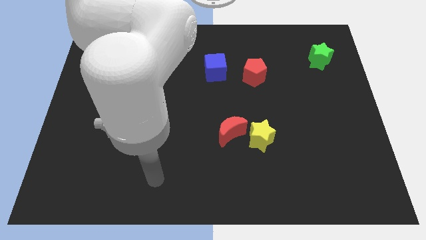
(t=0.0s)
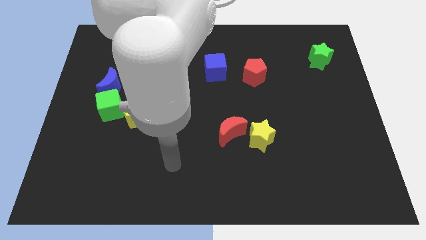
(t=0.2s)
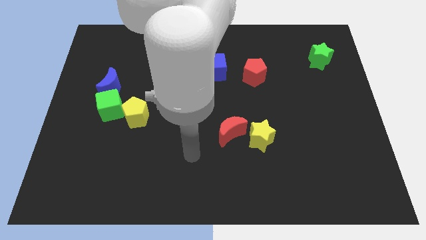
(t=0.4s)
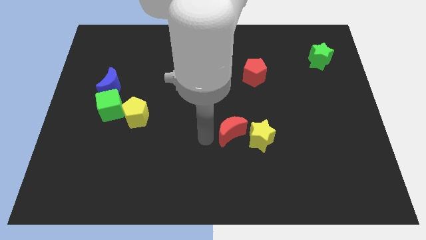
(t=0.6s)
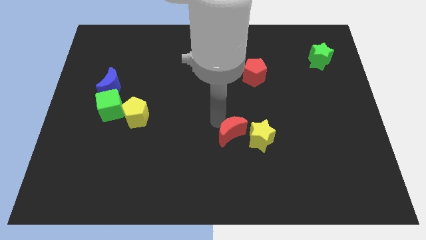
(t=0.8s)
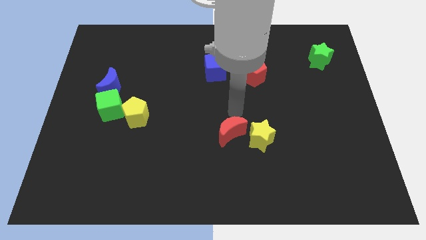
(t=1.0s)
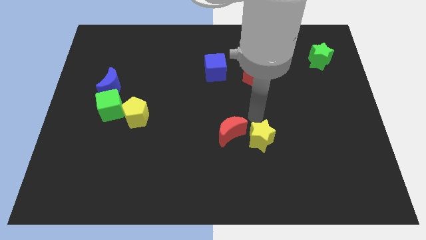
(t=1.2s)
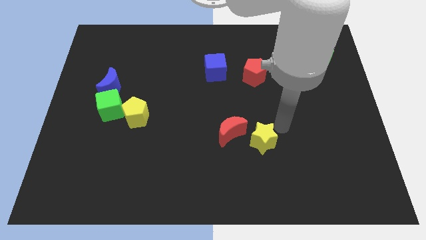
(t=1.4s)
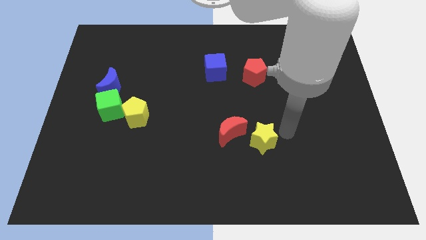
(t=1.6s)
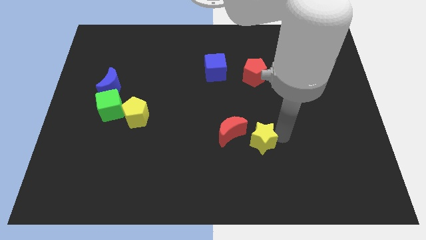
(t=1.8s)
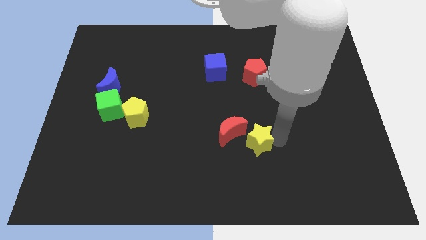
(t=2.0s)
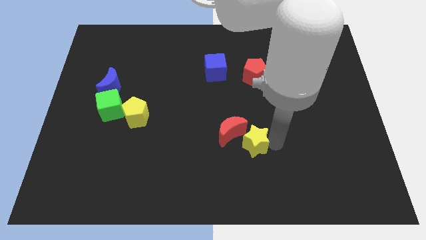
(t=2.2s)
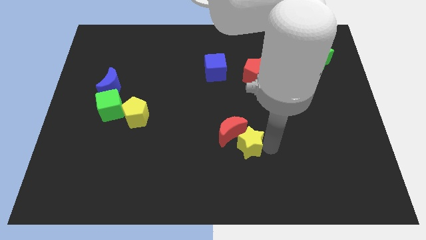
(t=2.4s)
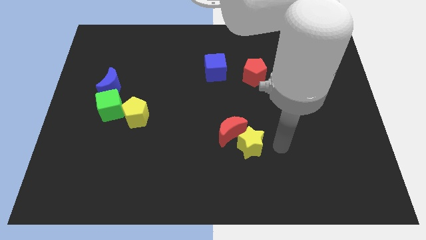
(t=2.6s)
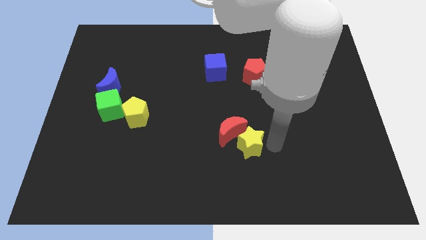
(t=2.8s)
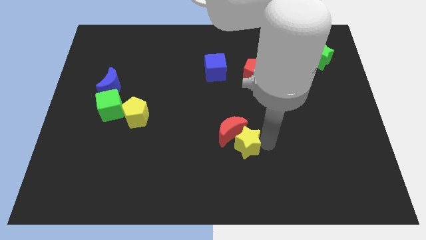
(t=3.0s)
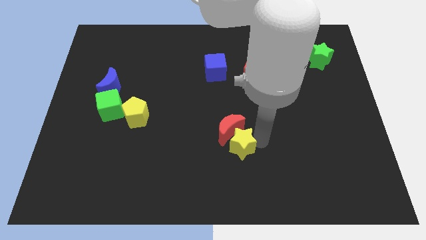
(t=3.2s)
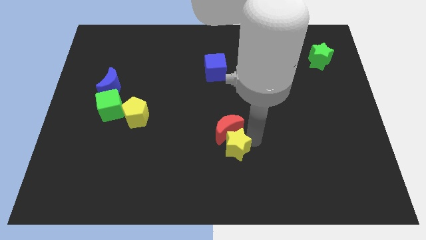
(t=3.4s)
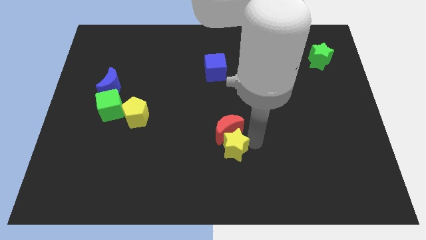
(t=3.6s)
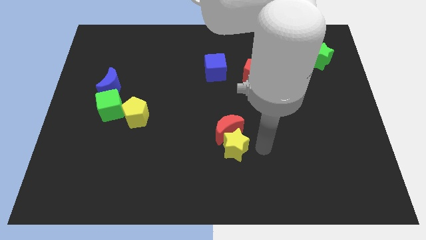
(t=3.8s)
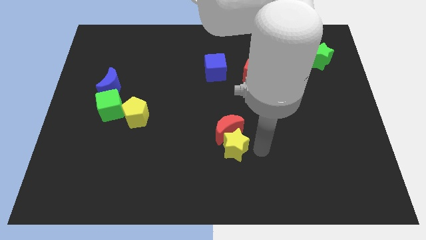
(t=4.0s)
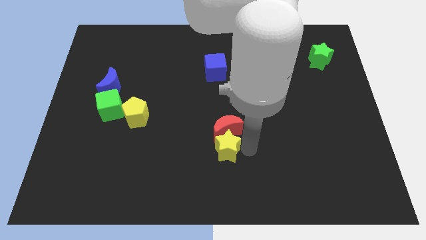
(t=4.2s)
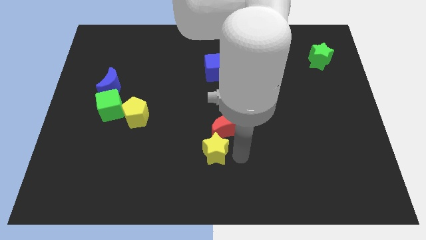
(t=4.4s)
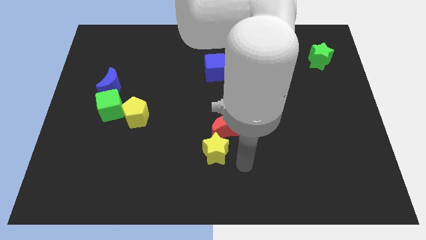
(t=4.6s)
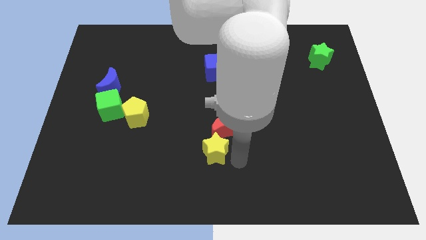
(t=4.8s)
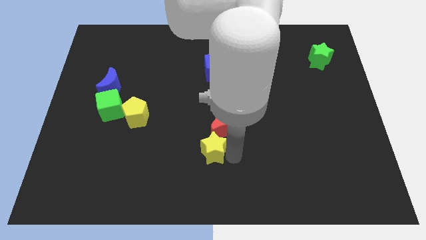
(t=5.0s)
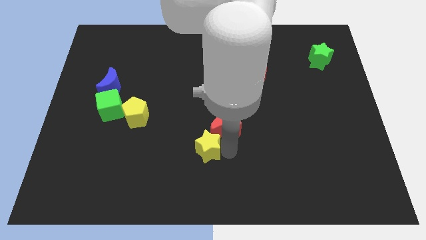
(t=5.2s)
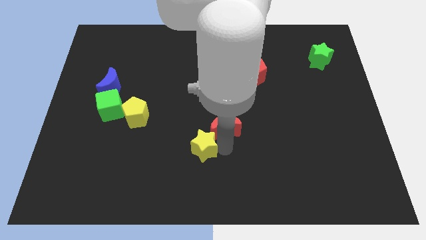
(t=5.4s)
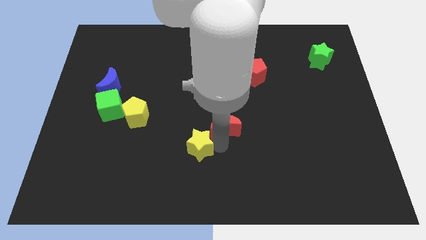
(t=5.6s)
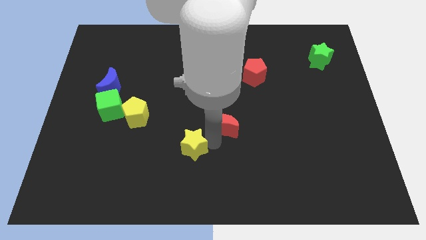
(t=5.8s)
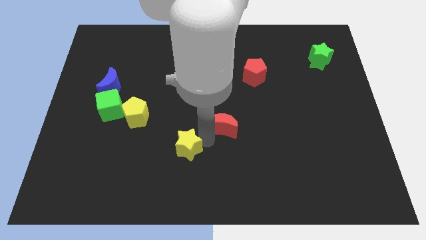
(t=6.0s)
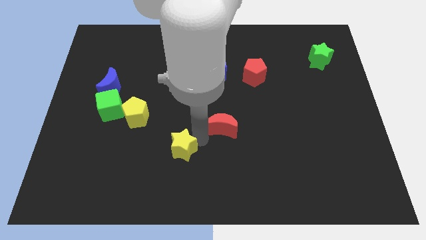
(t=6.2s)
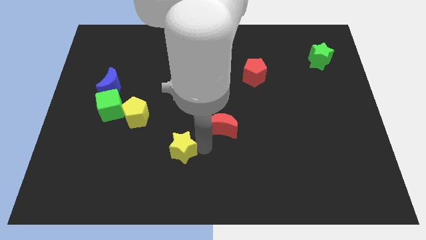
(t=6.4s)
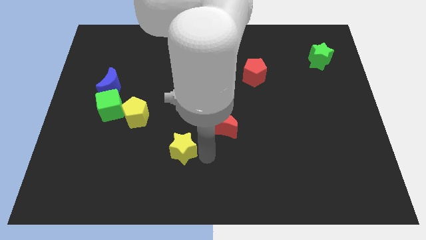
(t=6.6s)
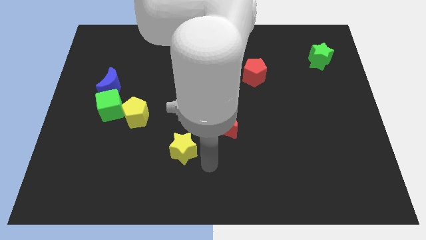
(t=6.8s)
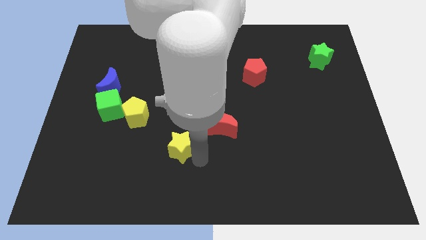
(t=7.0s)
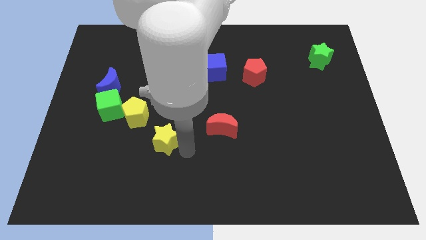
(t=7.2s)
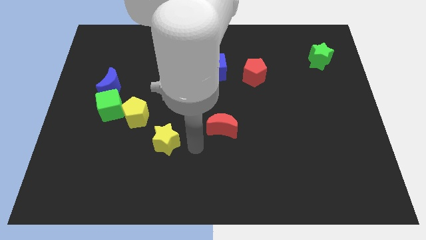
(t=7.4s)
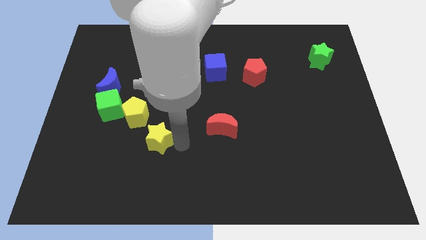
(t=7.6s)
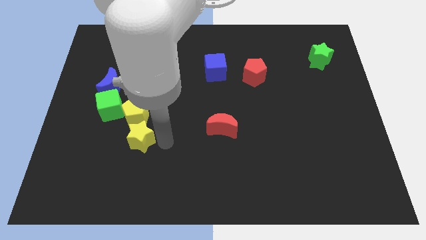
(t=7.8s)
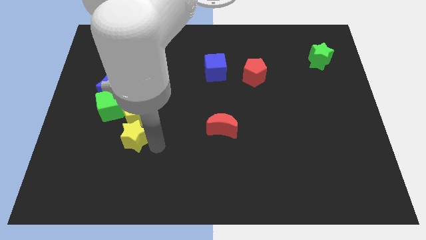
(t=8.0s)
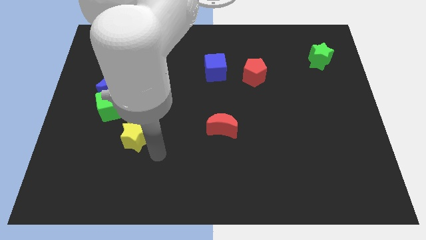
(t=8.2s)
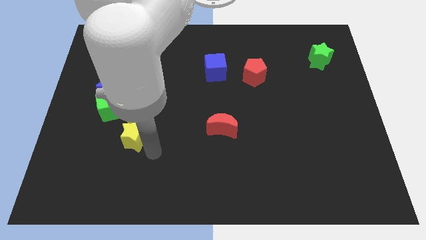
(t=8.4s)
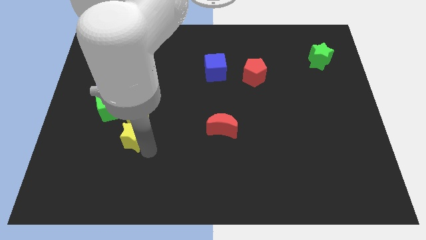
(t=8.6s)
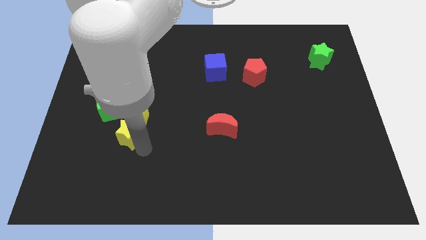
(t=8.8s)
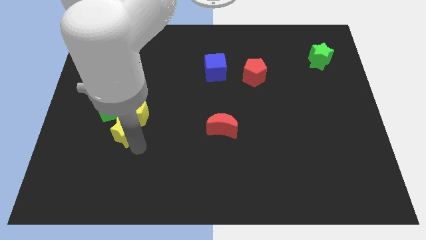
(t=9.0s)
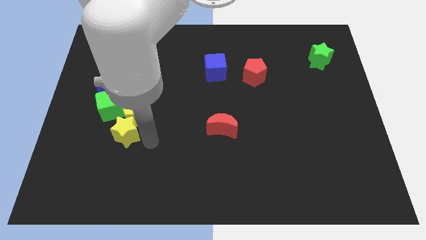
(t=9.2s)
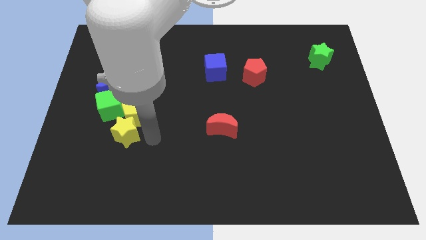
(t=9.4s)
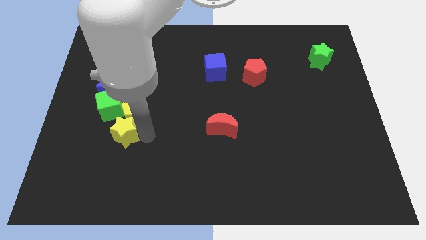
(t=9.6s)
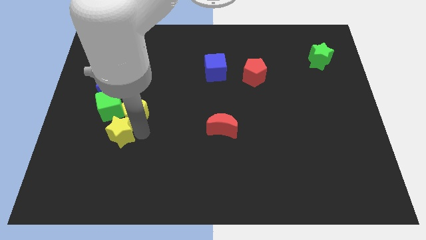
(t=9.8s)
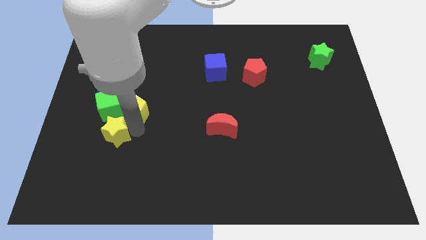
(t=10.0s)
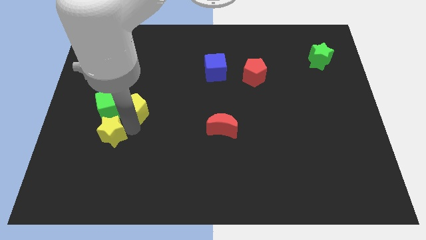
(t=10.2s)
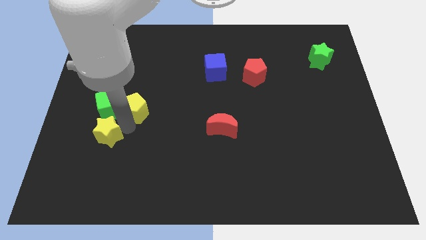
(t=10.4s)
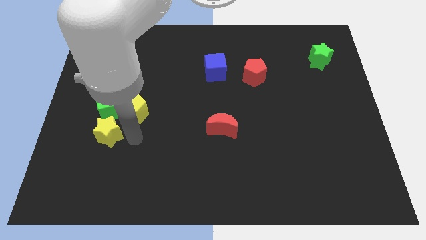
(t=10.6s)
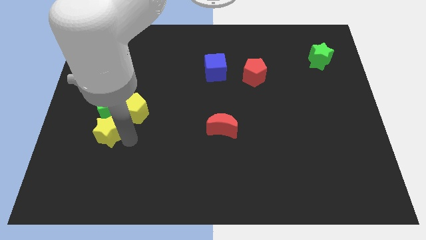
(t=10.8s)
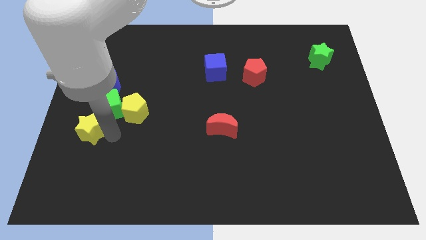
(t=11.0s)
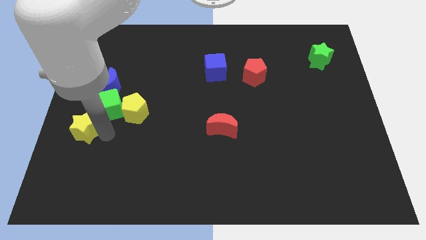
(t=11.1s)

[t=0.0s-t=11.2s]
put the yellow star to the left side

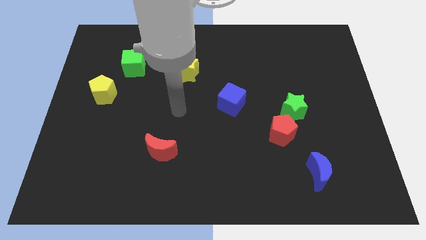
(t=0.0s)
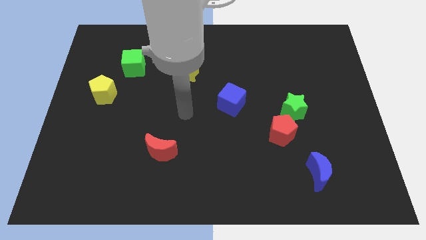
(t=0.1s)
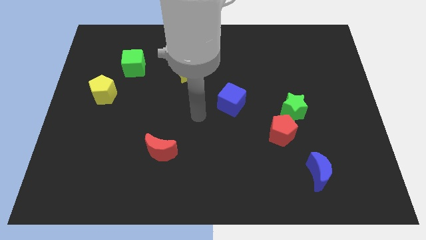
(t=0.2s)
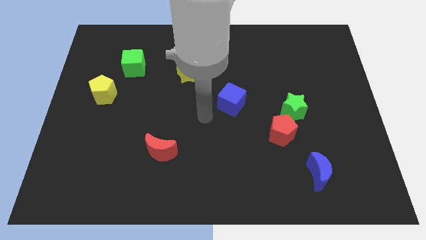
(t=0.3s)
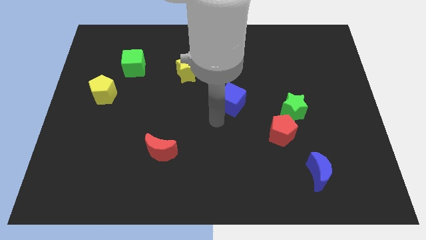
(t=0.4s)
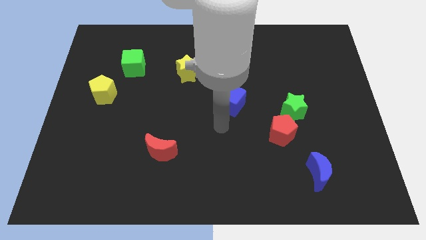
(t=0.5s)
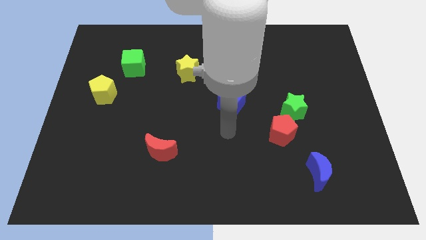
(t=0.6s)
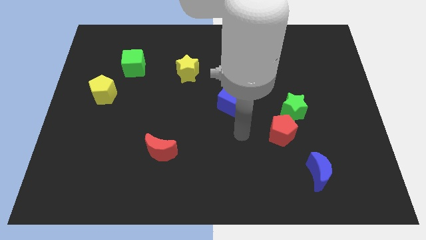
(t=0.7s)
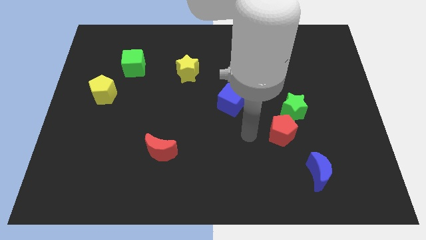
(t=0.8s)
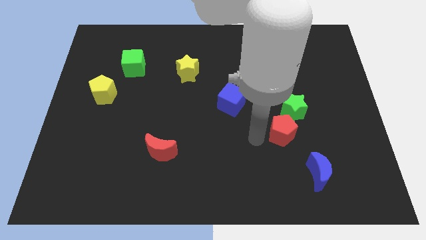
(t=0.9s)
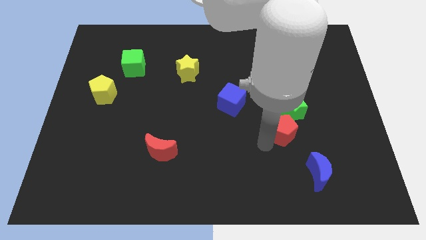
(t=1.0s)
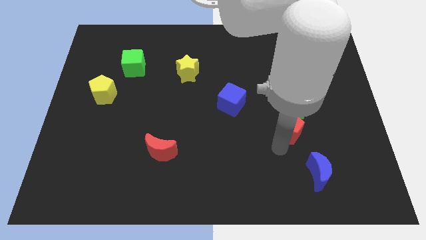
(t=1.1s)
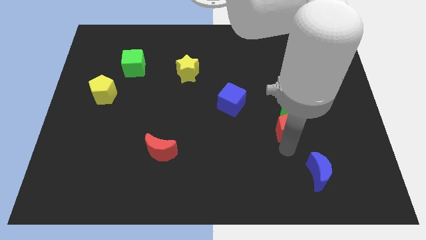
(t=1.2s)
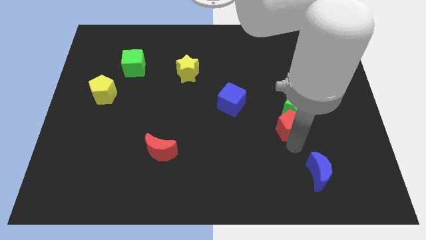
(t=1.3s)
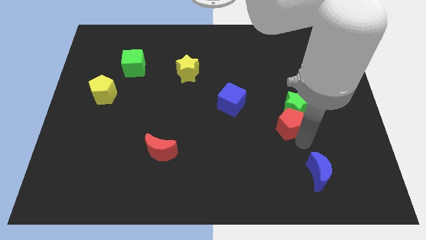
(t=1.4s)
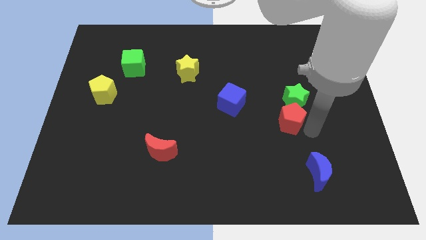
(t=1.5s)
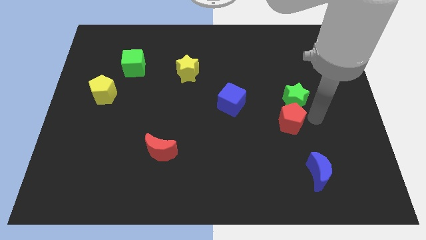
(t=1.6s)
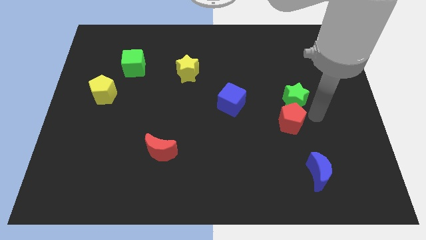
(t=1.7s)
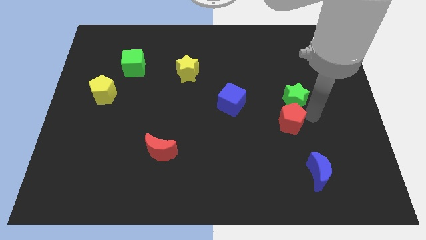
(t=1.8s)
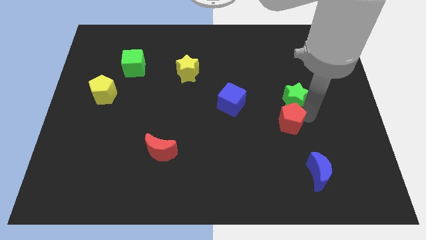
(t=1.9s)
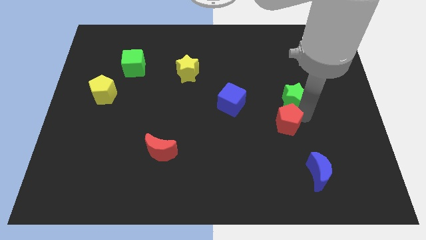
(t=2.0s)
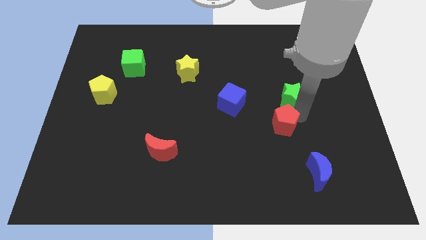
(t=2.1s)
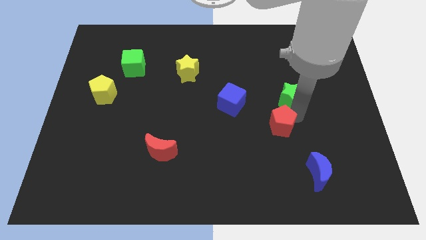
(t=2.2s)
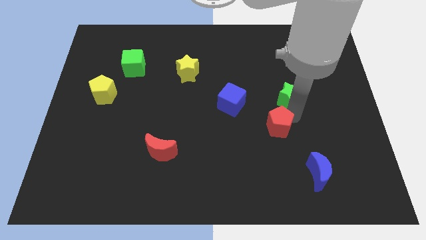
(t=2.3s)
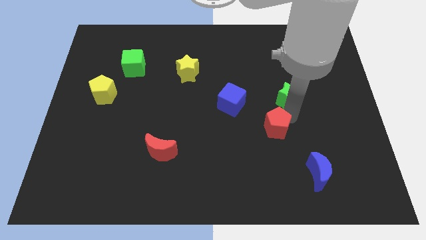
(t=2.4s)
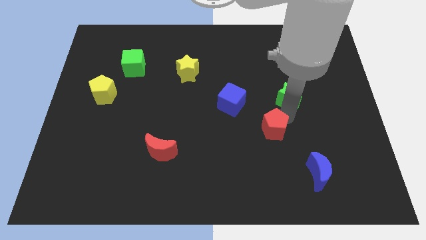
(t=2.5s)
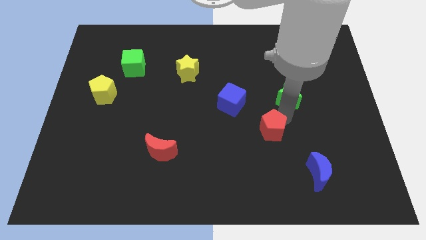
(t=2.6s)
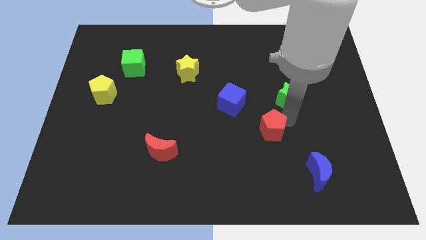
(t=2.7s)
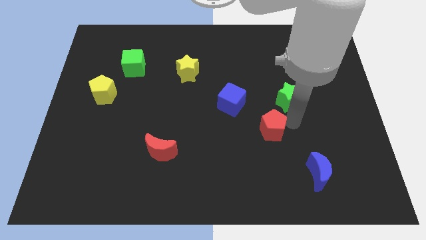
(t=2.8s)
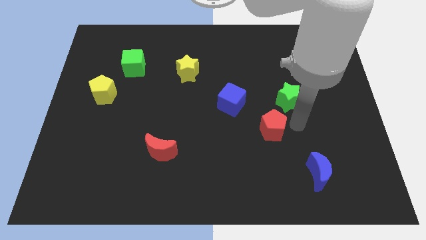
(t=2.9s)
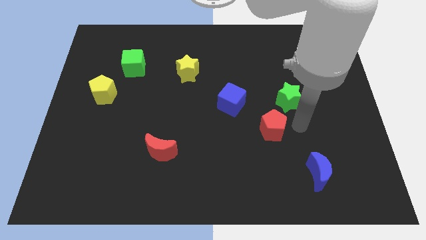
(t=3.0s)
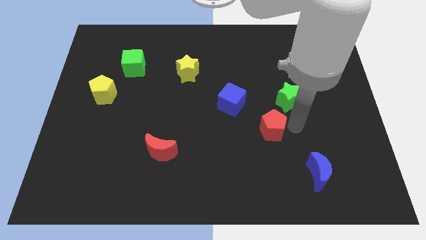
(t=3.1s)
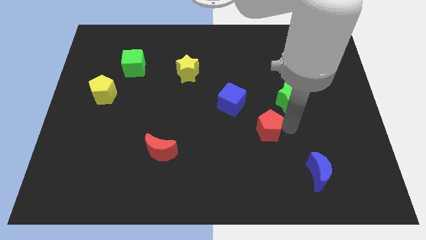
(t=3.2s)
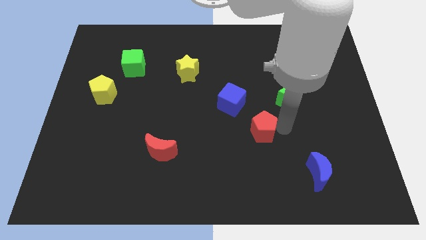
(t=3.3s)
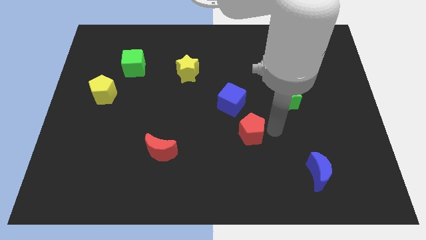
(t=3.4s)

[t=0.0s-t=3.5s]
move the red pentagon to the middle
